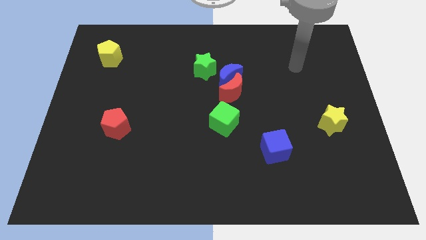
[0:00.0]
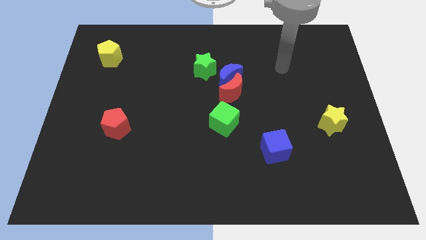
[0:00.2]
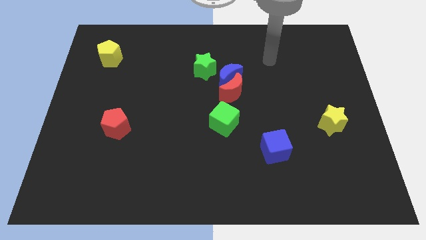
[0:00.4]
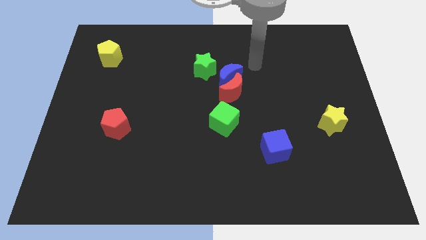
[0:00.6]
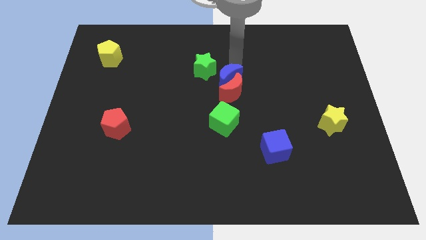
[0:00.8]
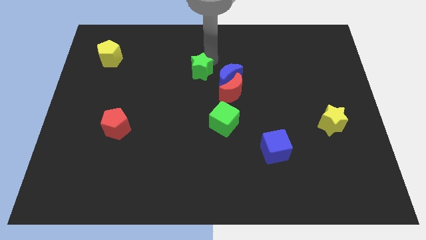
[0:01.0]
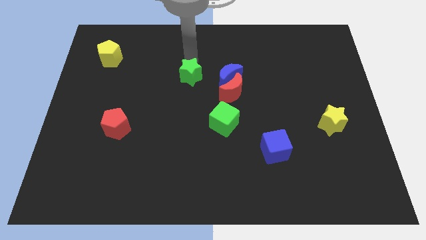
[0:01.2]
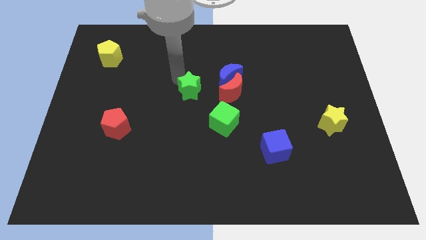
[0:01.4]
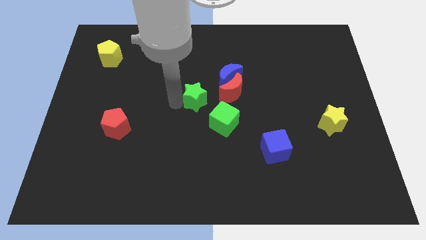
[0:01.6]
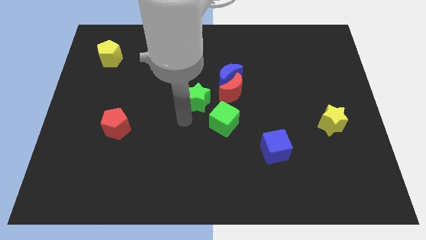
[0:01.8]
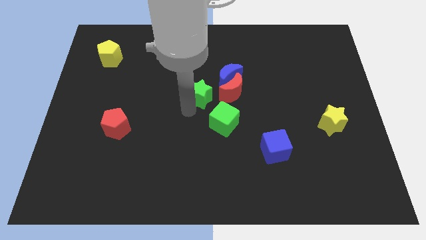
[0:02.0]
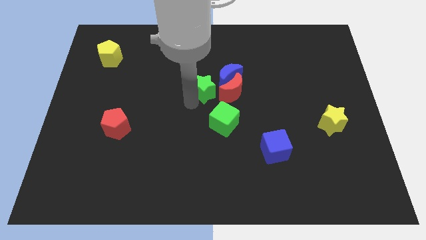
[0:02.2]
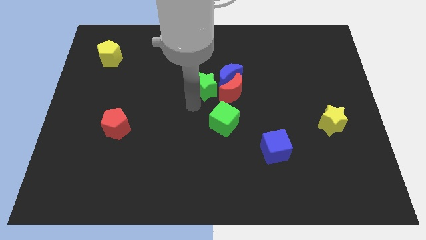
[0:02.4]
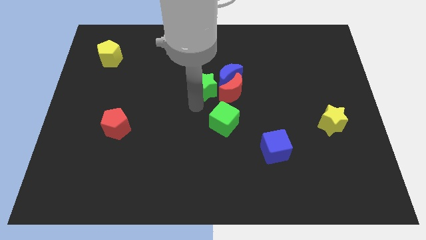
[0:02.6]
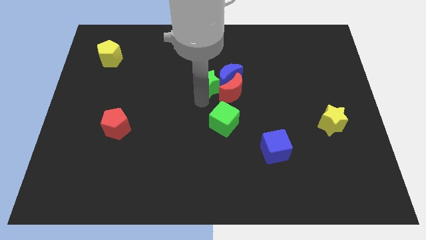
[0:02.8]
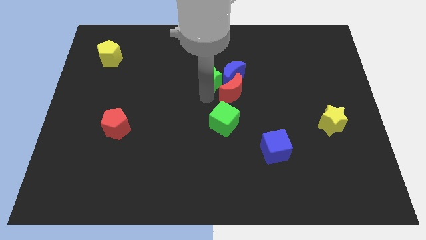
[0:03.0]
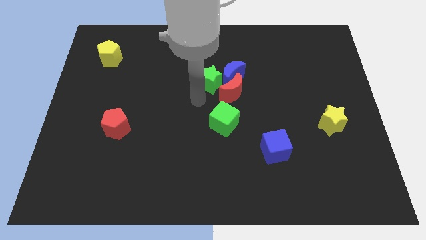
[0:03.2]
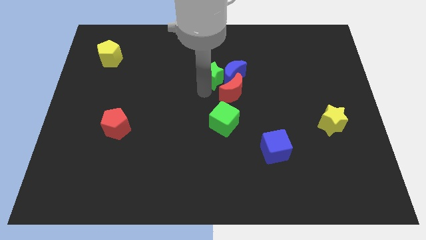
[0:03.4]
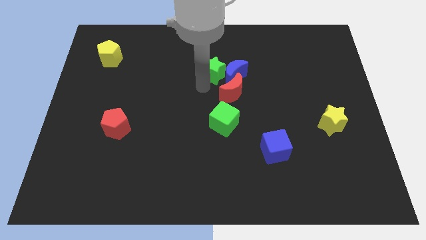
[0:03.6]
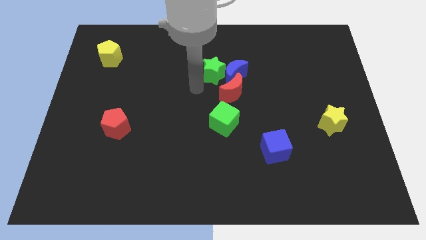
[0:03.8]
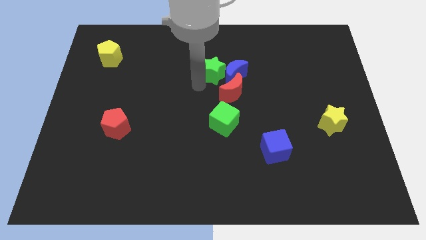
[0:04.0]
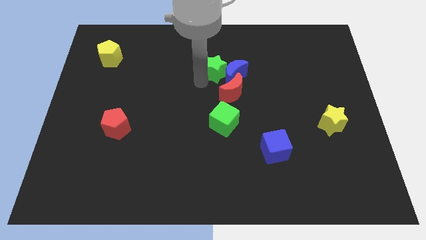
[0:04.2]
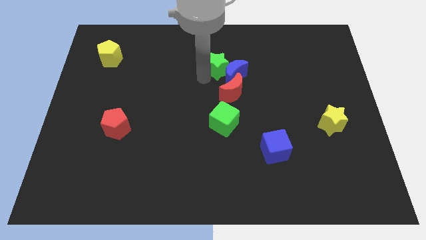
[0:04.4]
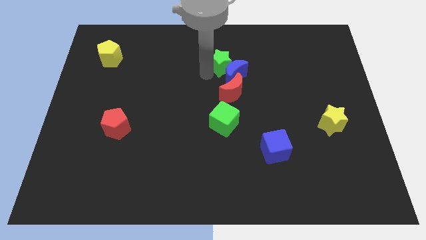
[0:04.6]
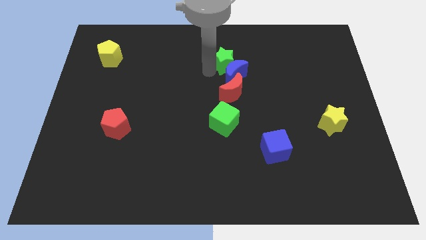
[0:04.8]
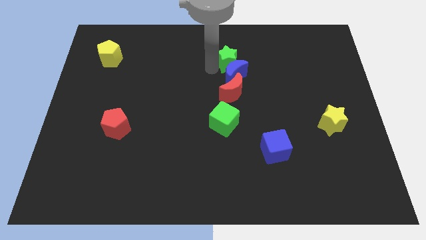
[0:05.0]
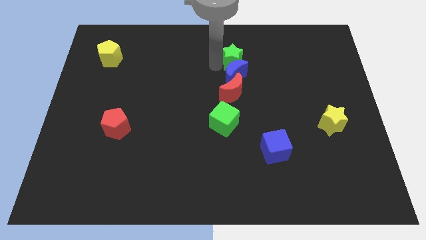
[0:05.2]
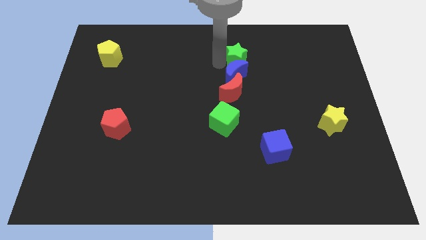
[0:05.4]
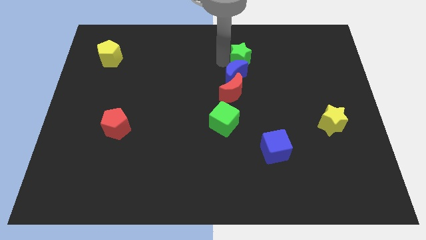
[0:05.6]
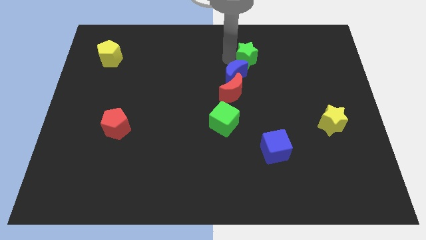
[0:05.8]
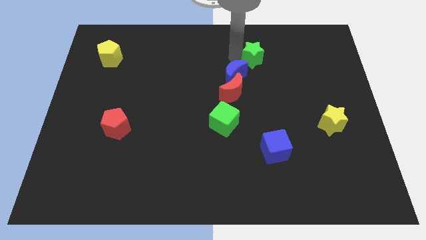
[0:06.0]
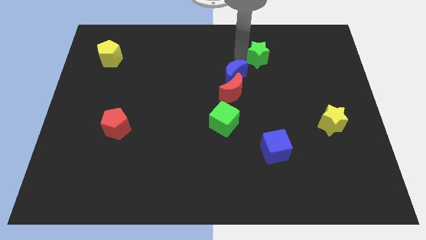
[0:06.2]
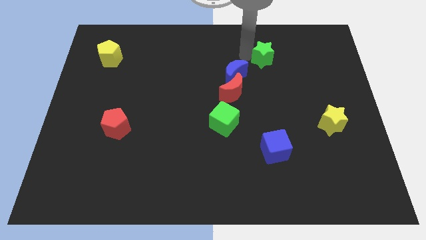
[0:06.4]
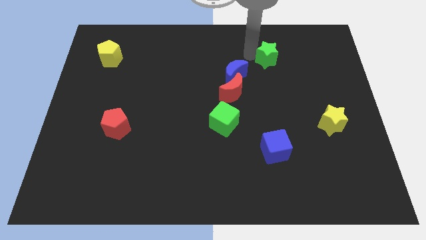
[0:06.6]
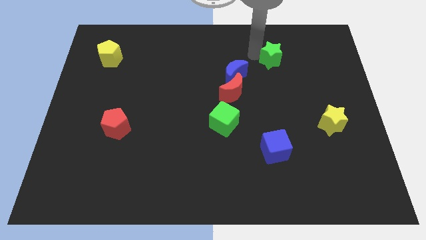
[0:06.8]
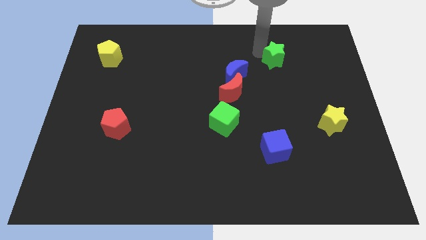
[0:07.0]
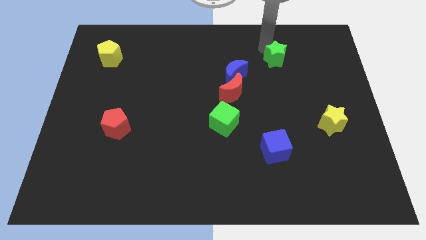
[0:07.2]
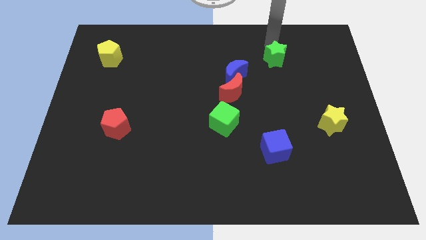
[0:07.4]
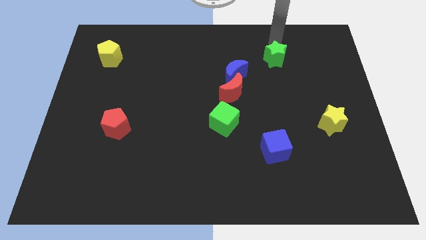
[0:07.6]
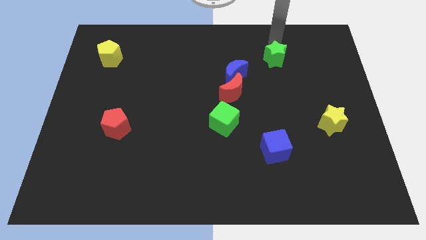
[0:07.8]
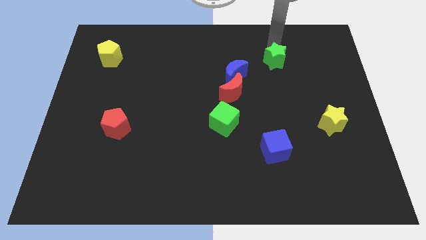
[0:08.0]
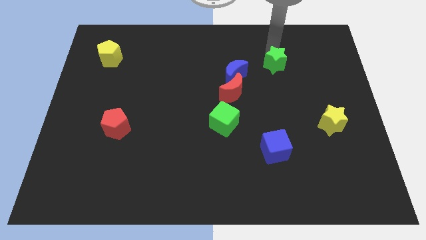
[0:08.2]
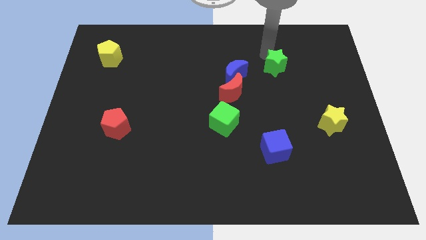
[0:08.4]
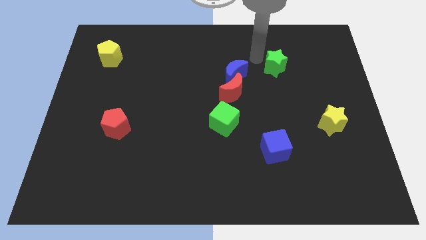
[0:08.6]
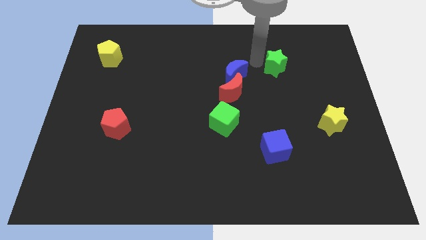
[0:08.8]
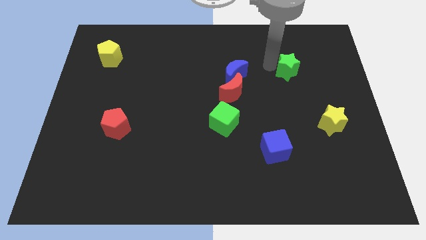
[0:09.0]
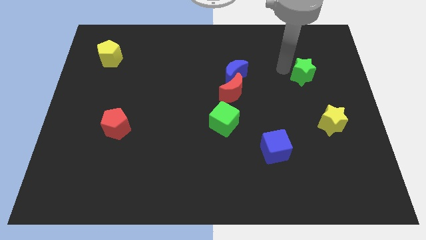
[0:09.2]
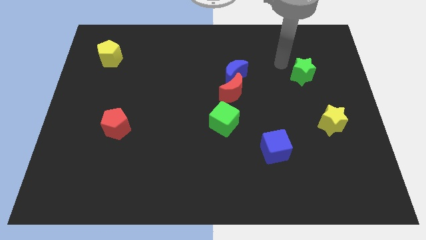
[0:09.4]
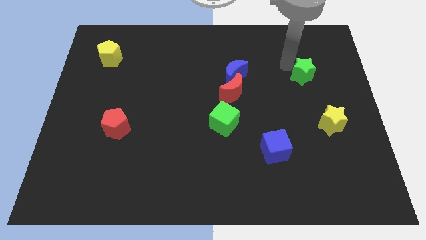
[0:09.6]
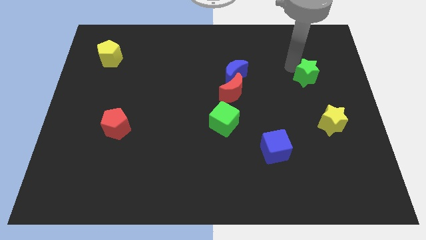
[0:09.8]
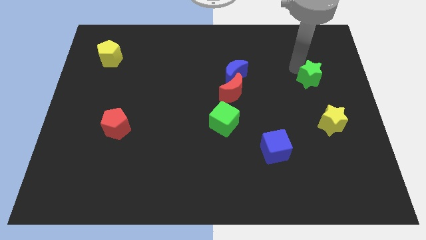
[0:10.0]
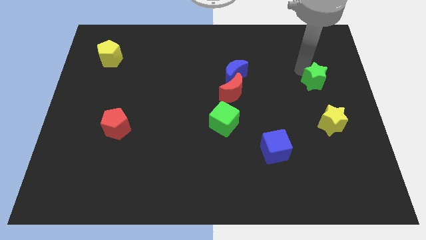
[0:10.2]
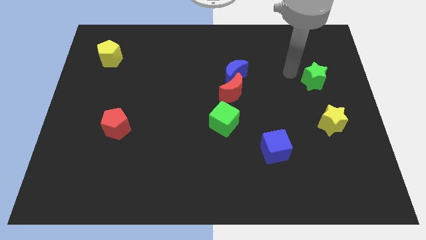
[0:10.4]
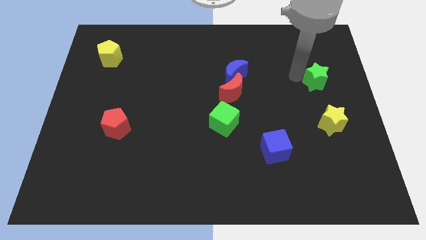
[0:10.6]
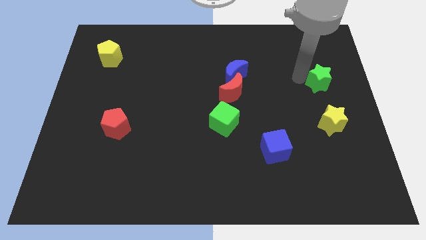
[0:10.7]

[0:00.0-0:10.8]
put the green star to the center right
